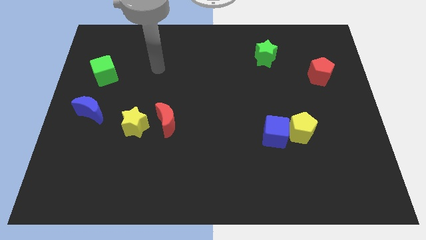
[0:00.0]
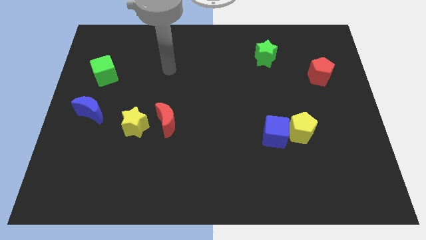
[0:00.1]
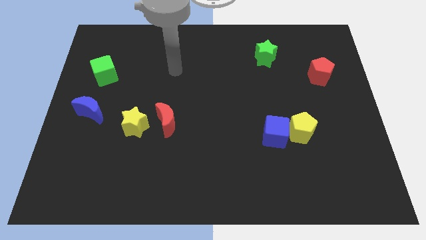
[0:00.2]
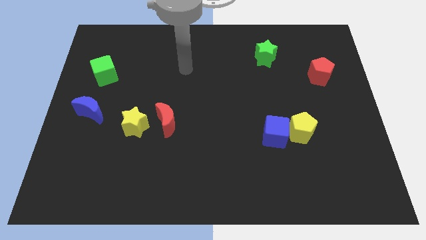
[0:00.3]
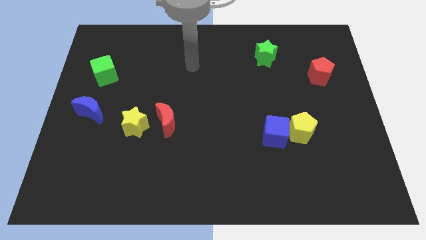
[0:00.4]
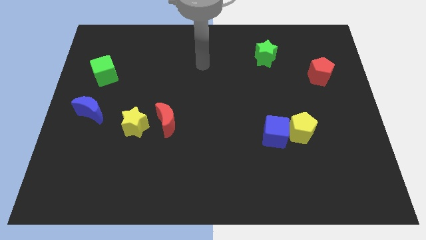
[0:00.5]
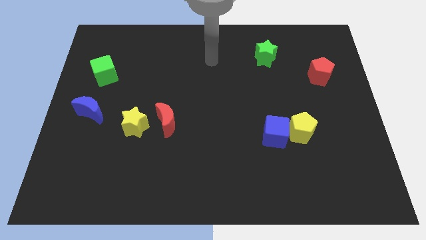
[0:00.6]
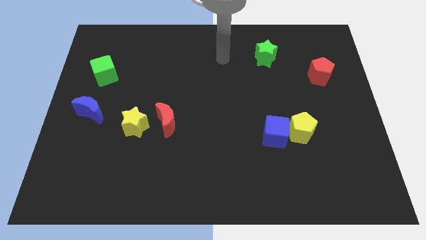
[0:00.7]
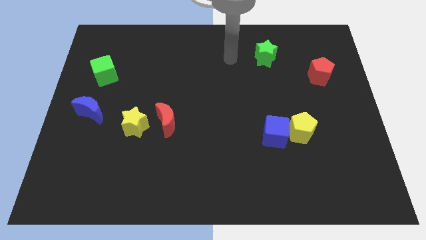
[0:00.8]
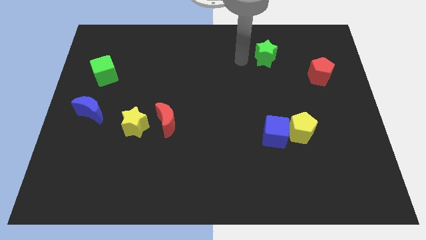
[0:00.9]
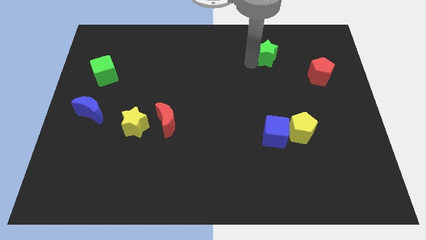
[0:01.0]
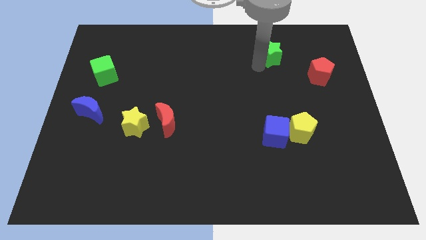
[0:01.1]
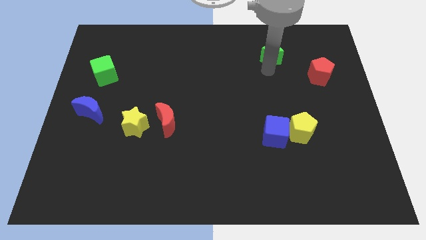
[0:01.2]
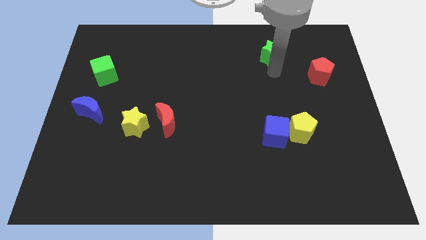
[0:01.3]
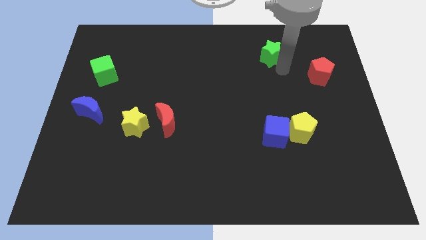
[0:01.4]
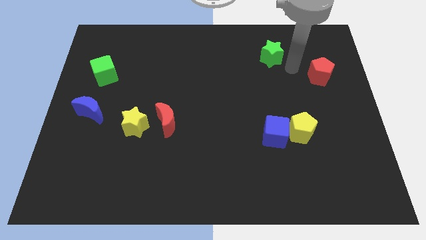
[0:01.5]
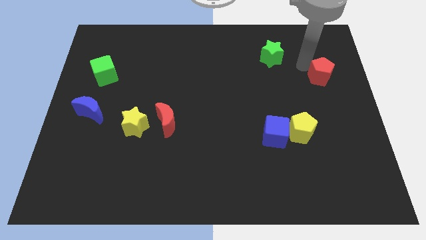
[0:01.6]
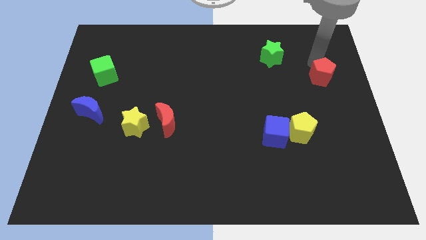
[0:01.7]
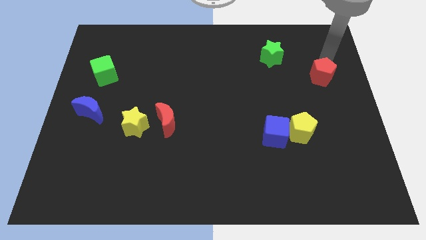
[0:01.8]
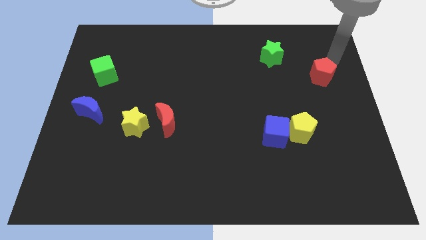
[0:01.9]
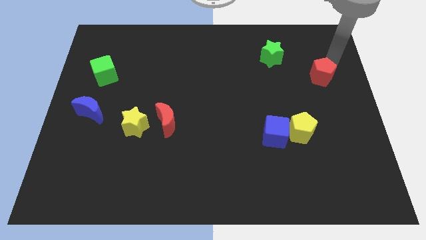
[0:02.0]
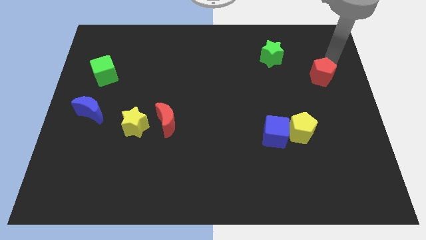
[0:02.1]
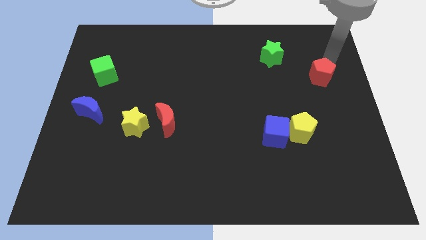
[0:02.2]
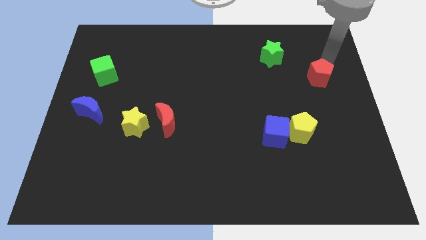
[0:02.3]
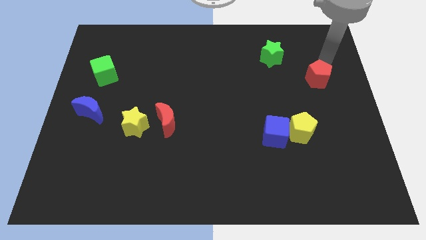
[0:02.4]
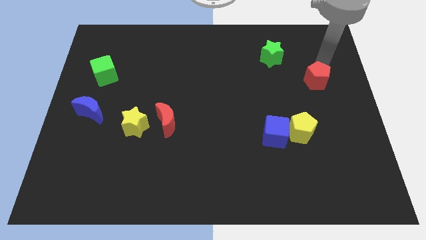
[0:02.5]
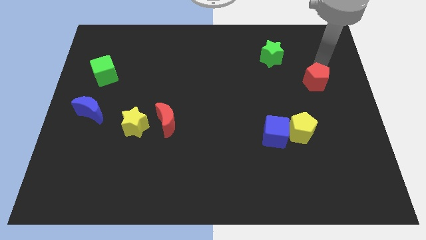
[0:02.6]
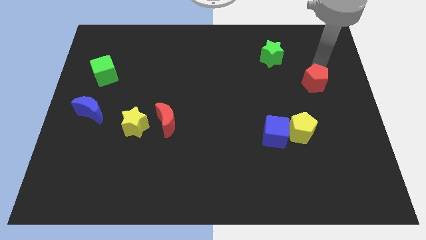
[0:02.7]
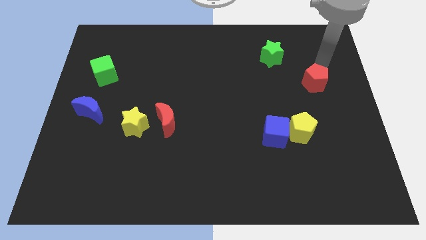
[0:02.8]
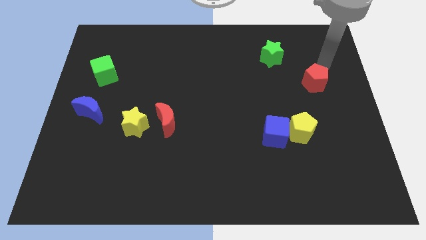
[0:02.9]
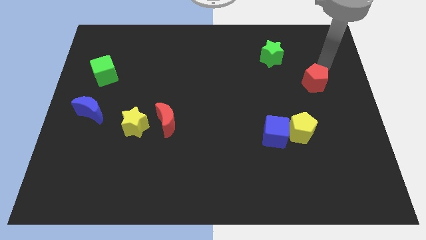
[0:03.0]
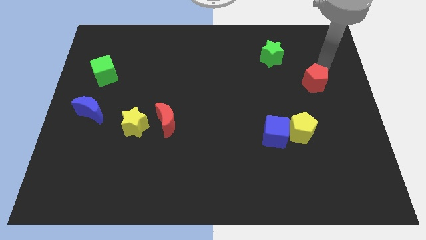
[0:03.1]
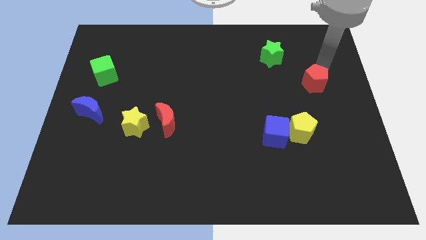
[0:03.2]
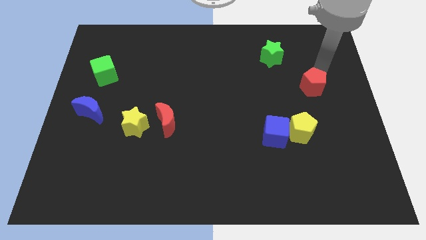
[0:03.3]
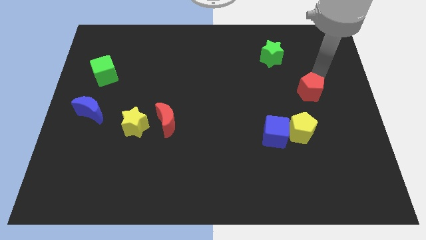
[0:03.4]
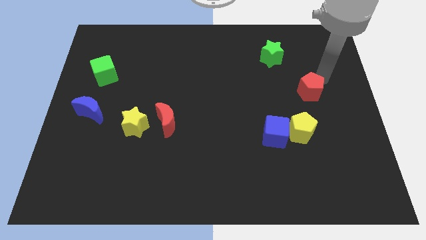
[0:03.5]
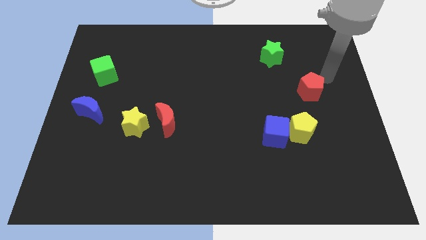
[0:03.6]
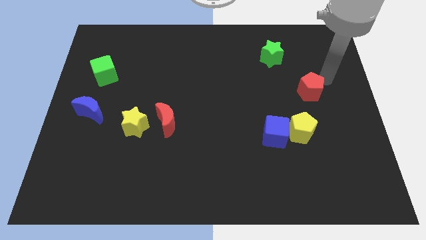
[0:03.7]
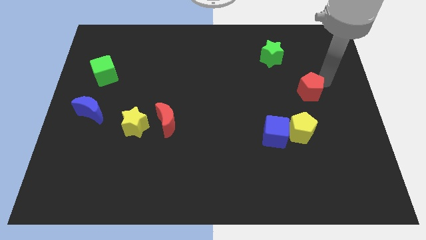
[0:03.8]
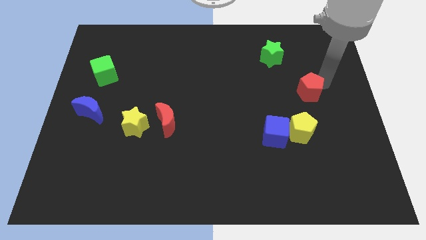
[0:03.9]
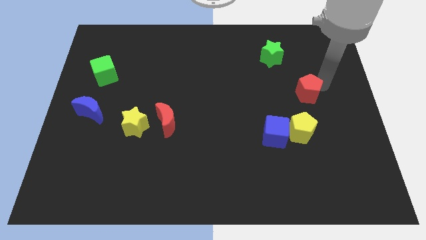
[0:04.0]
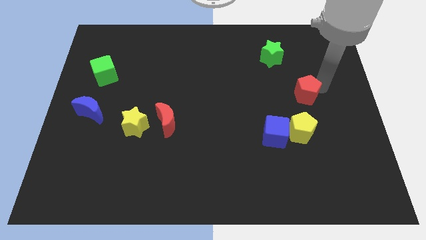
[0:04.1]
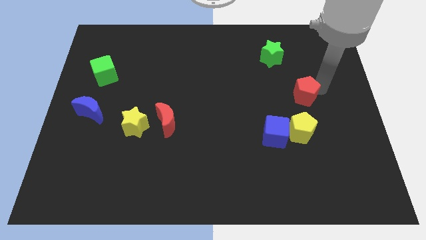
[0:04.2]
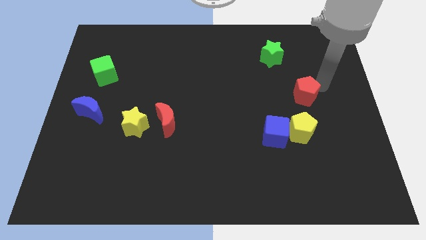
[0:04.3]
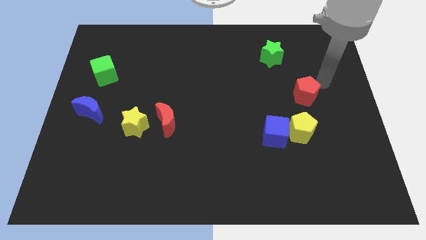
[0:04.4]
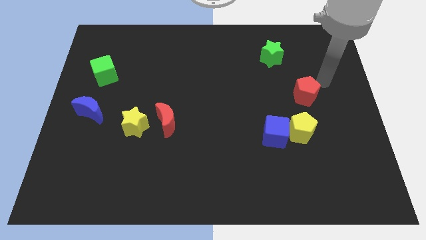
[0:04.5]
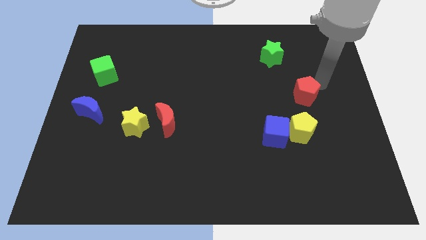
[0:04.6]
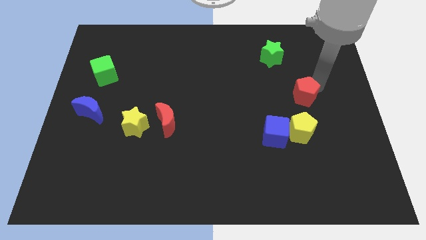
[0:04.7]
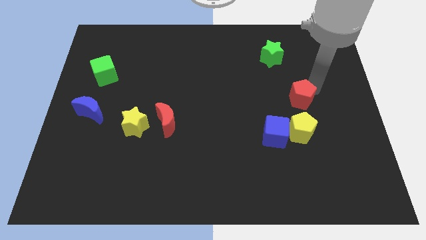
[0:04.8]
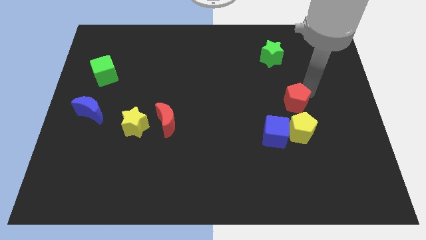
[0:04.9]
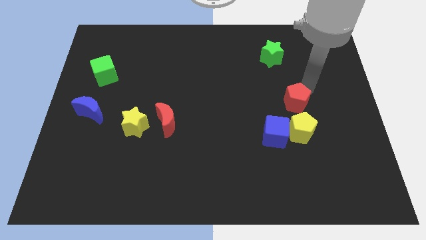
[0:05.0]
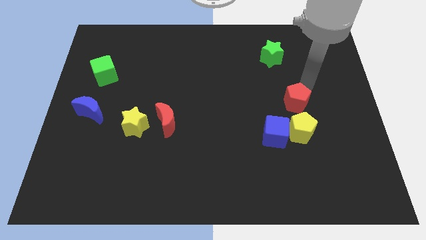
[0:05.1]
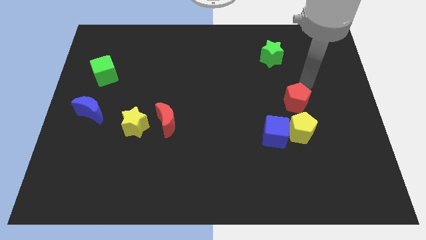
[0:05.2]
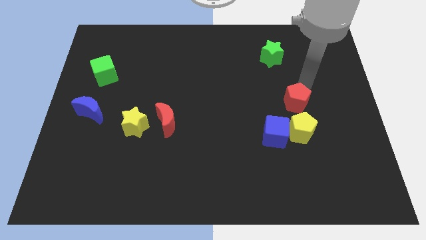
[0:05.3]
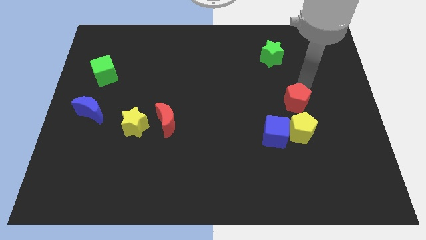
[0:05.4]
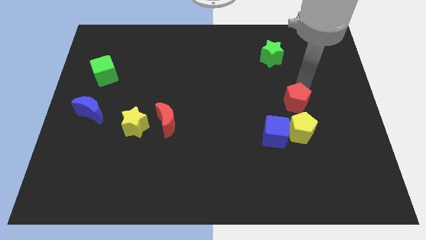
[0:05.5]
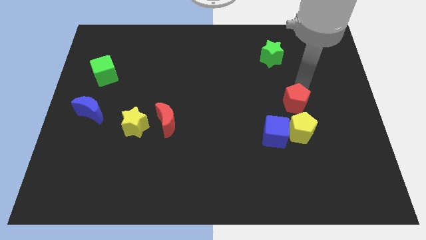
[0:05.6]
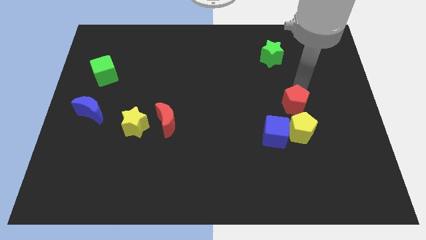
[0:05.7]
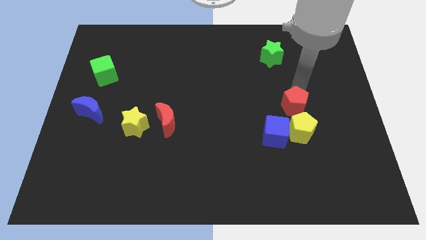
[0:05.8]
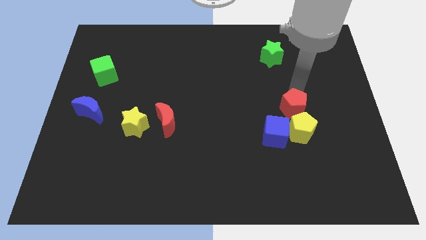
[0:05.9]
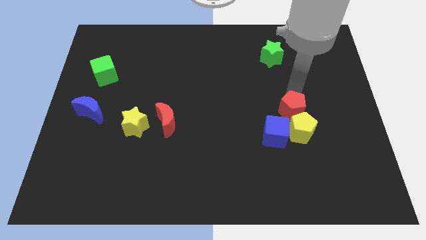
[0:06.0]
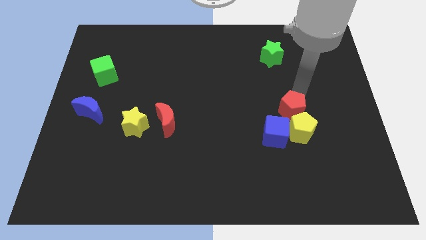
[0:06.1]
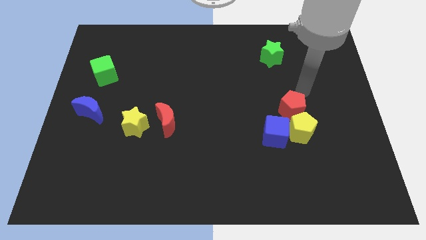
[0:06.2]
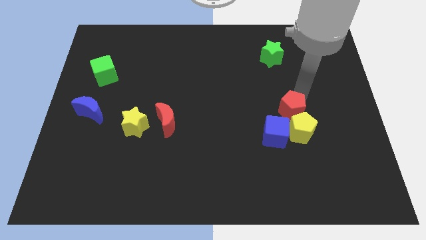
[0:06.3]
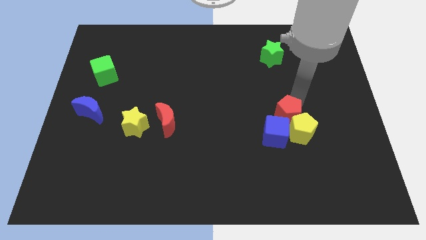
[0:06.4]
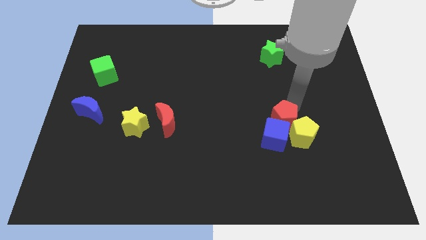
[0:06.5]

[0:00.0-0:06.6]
put the red pentagon to the blue cube

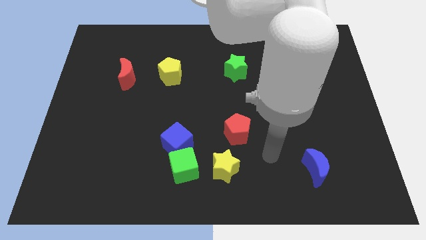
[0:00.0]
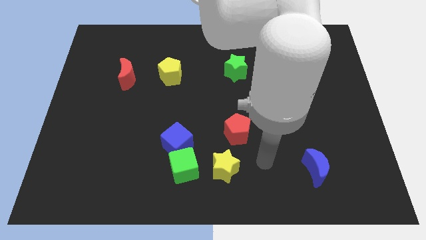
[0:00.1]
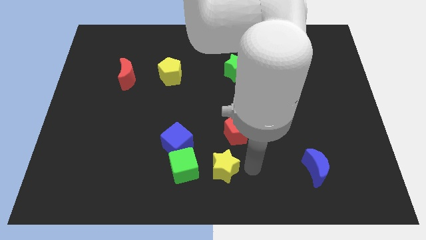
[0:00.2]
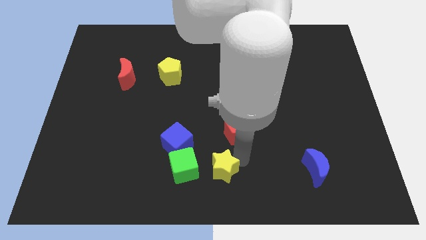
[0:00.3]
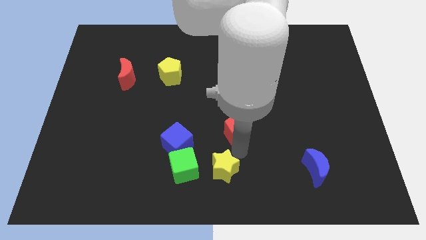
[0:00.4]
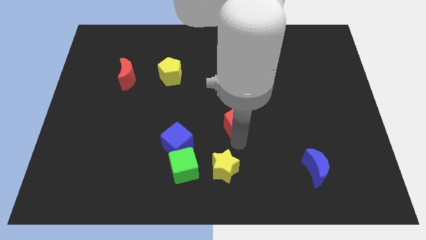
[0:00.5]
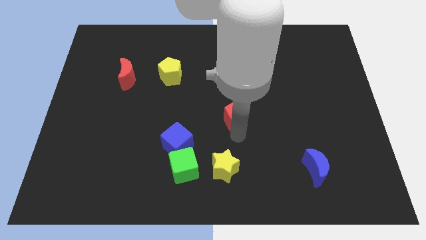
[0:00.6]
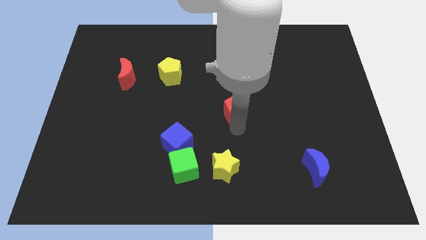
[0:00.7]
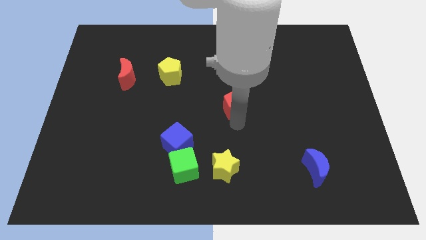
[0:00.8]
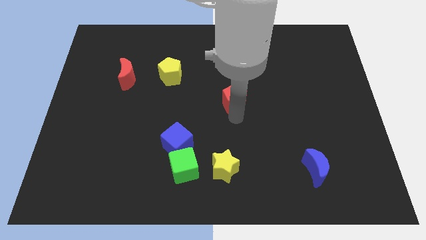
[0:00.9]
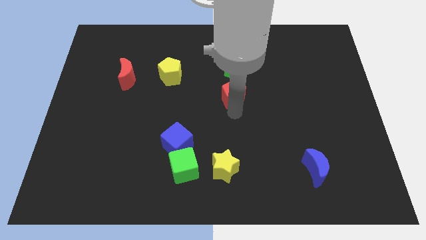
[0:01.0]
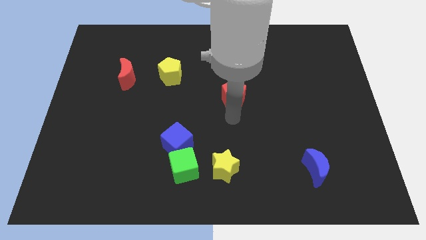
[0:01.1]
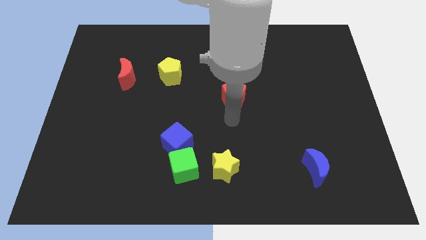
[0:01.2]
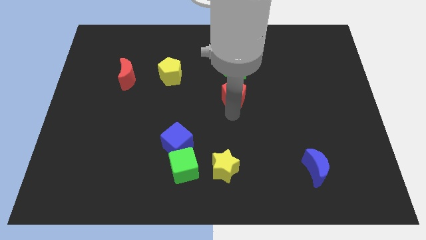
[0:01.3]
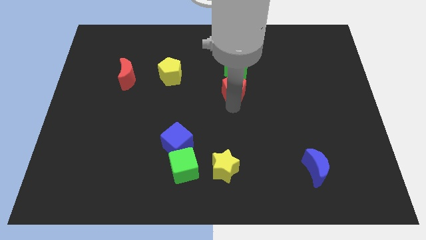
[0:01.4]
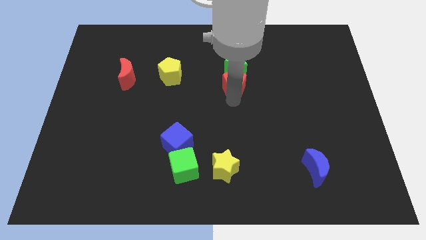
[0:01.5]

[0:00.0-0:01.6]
move the red pentagon to the green star
